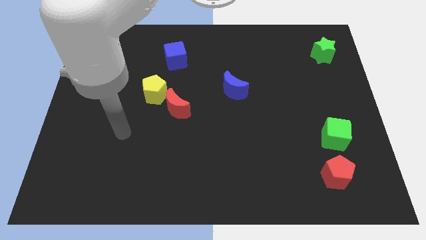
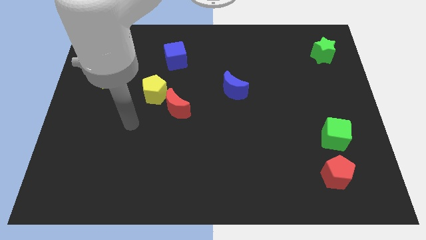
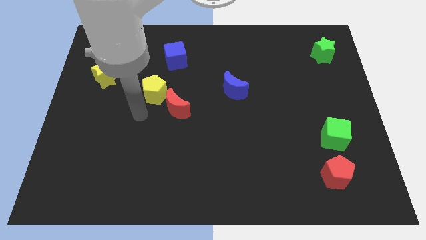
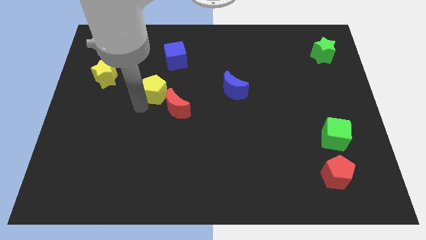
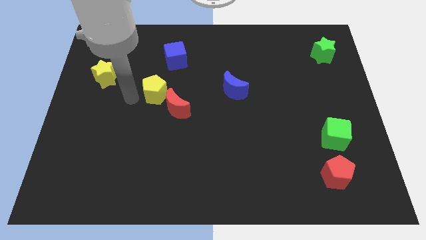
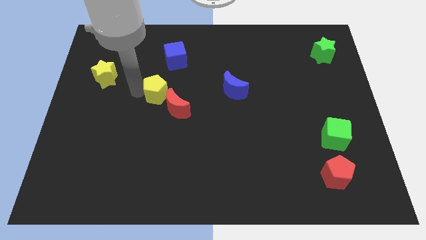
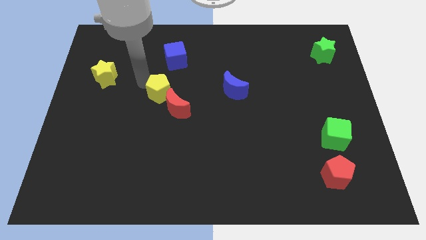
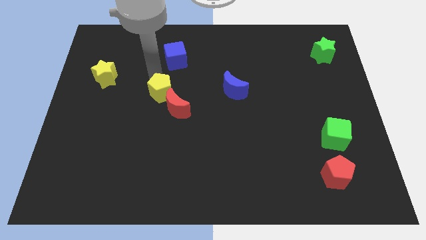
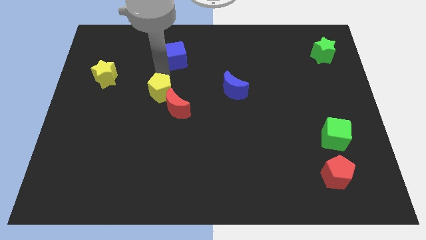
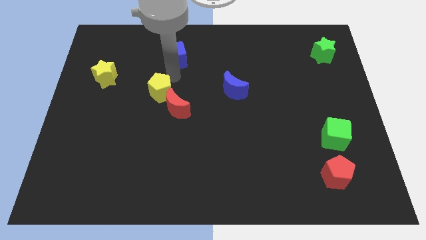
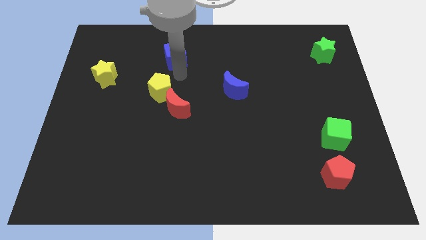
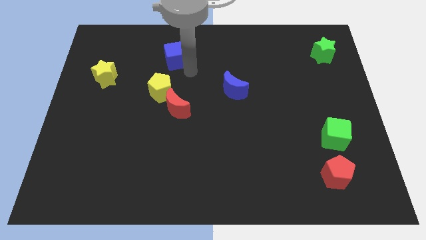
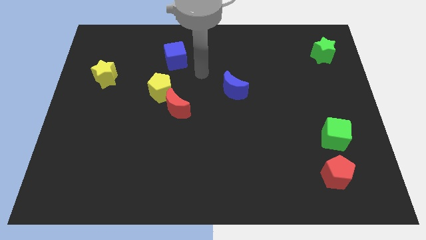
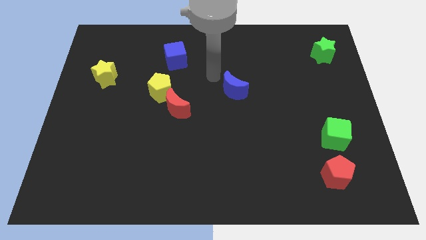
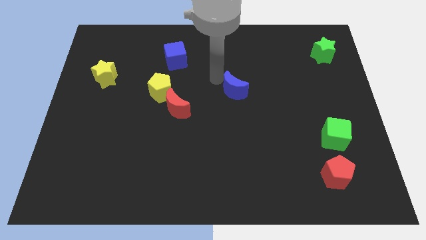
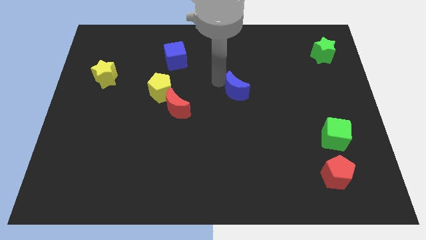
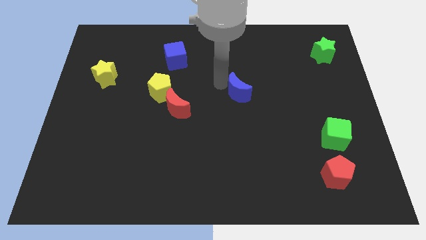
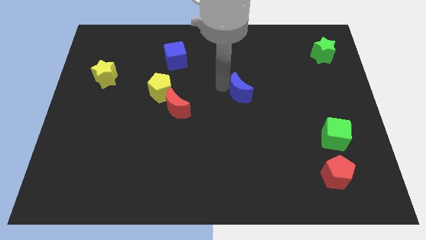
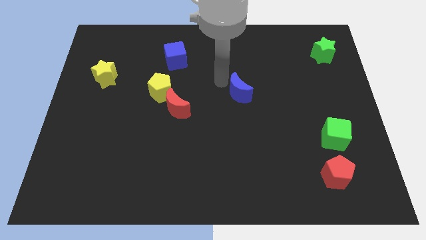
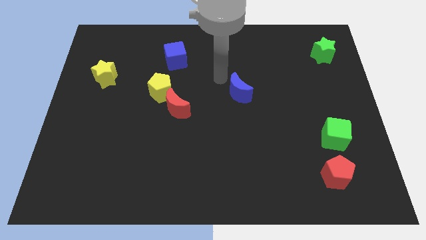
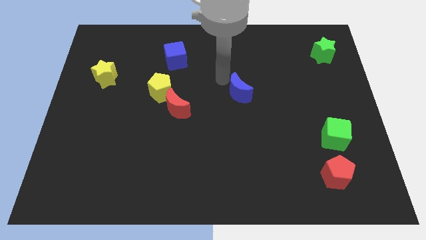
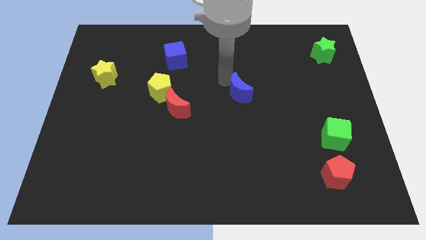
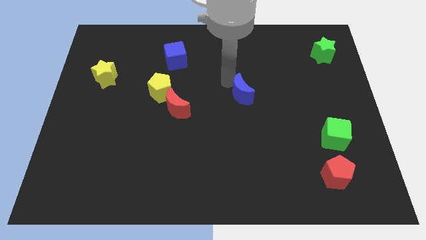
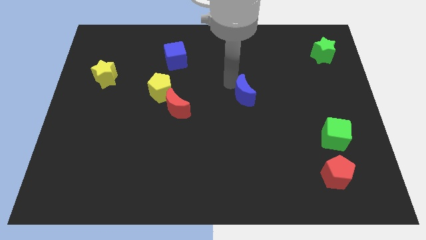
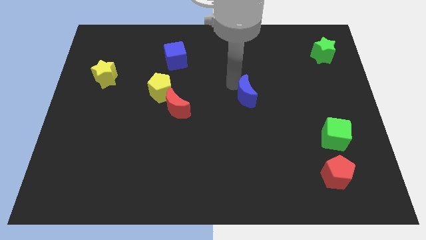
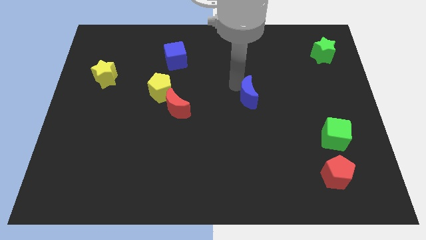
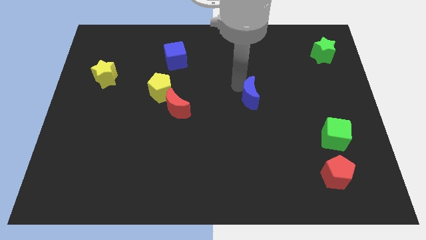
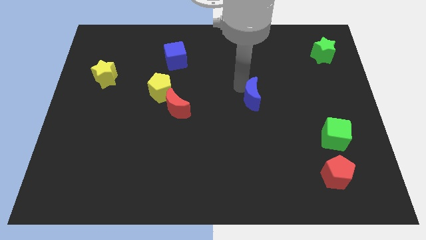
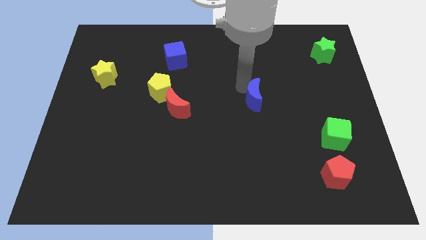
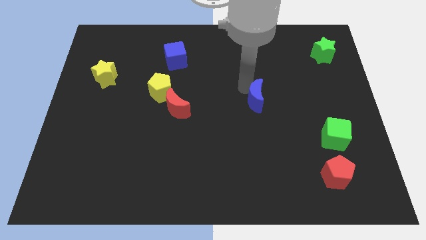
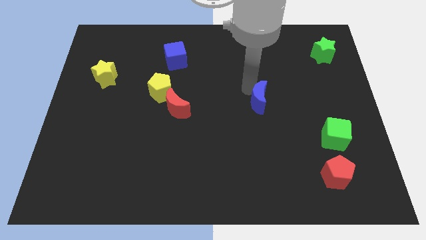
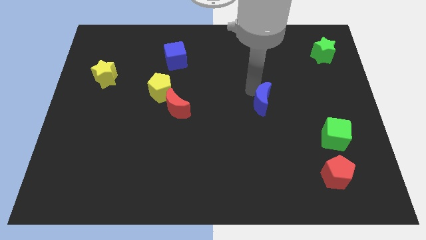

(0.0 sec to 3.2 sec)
slightly move the blue moon downwards and to the right

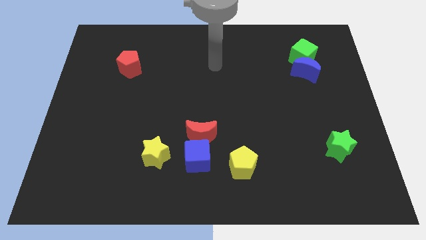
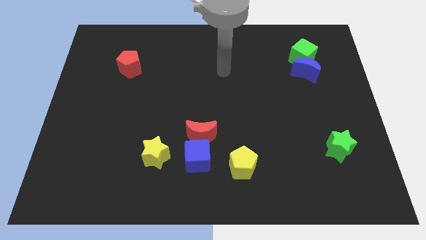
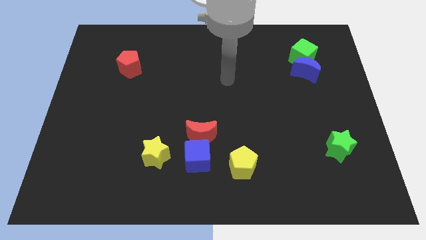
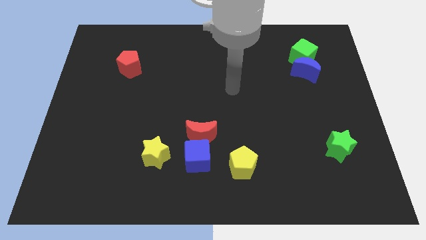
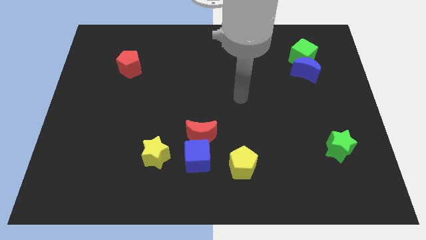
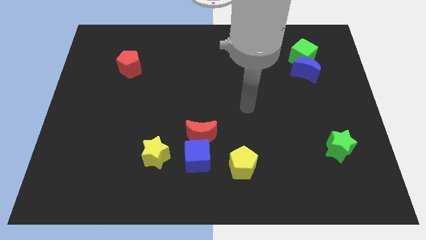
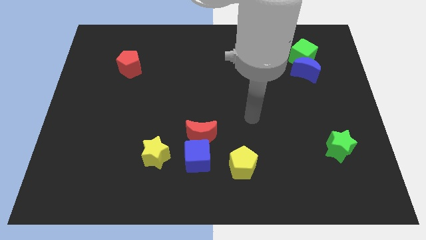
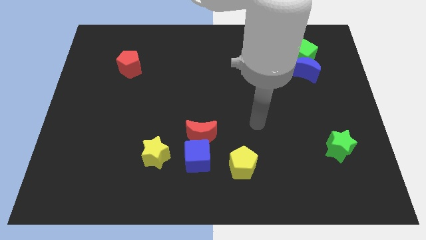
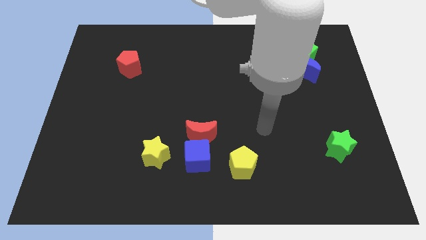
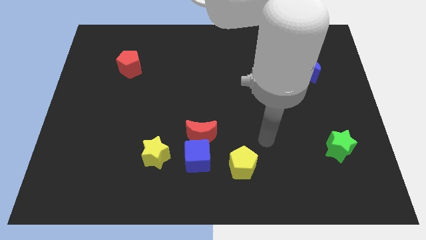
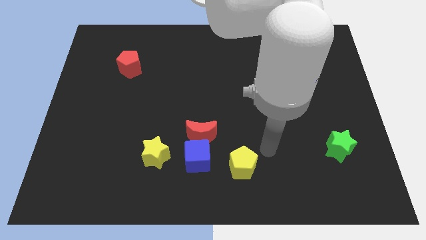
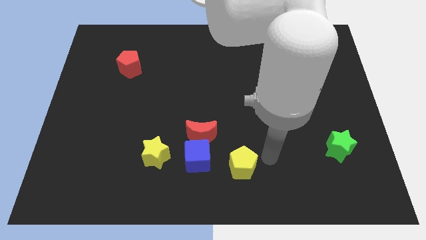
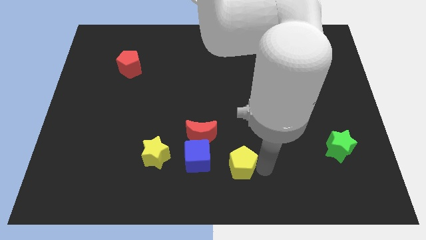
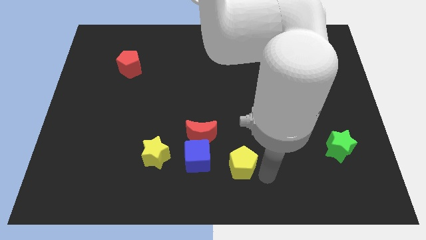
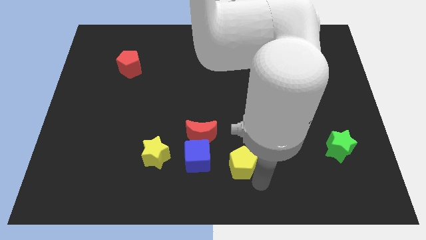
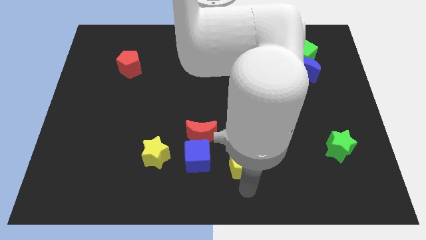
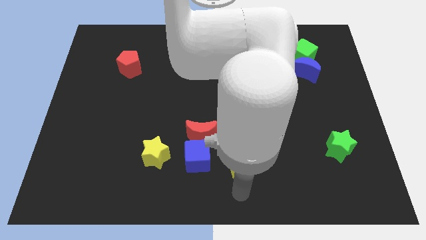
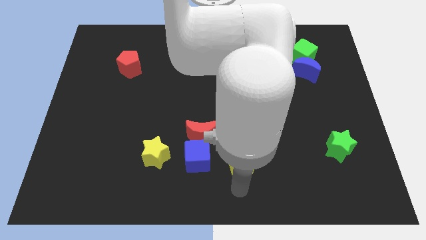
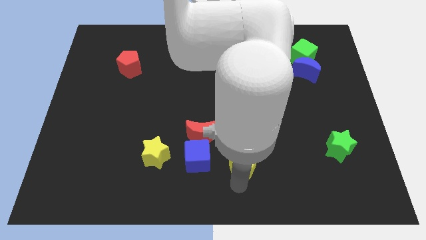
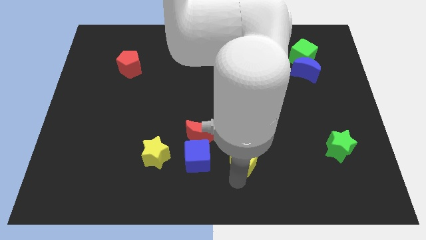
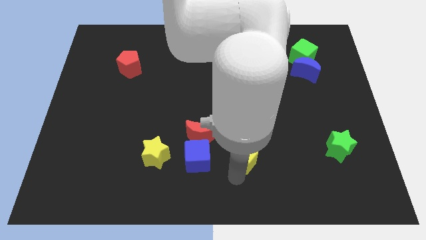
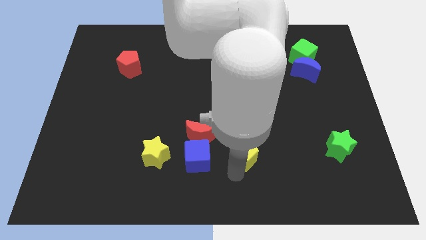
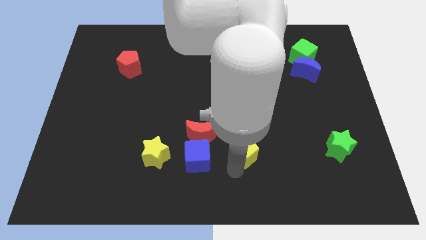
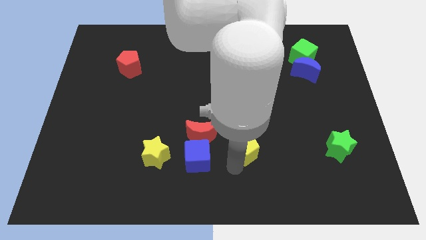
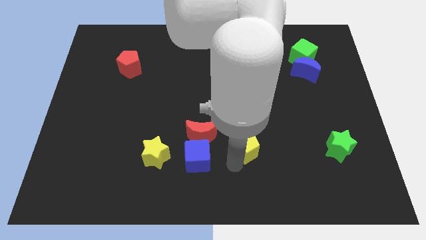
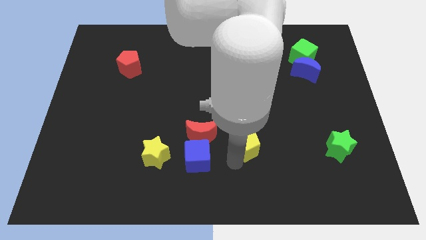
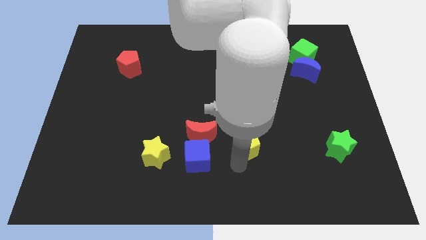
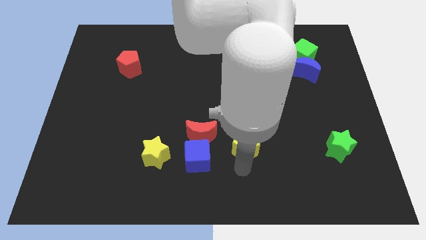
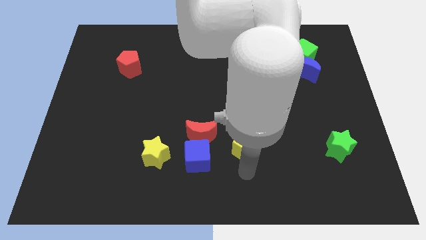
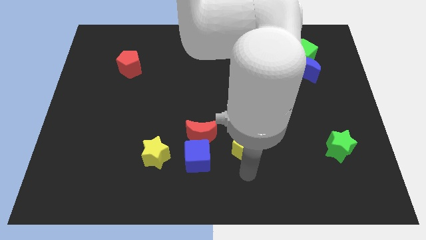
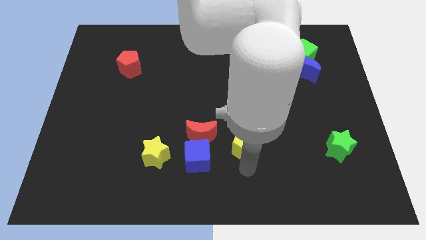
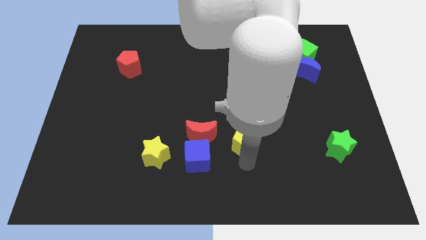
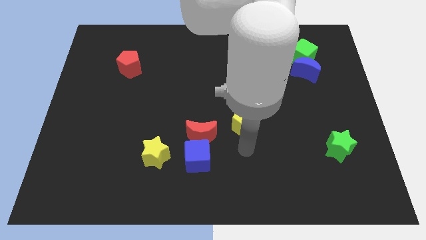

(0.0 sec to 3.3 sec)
slightly push the yellow pentagon upwards

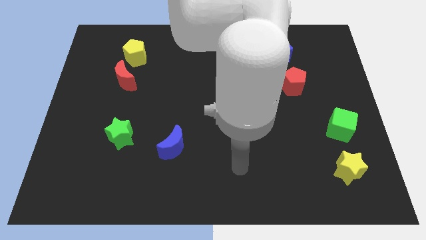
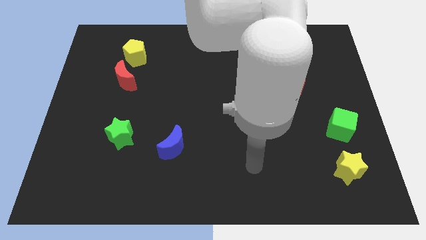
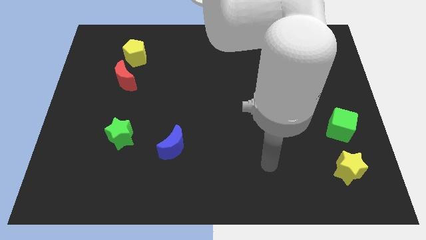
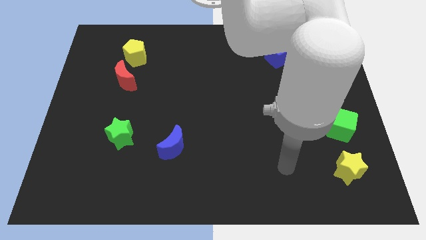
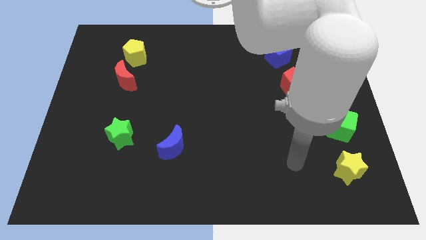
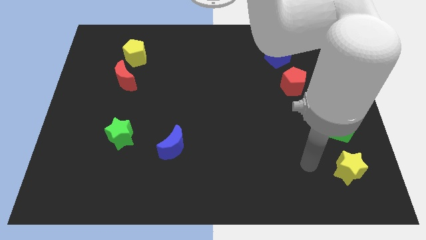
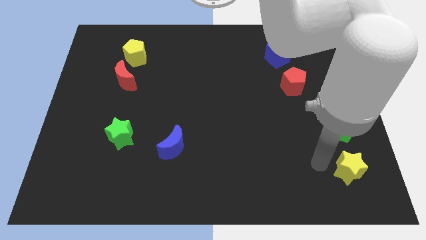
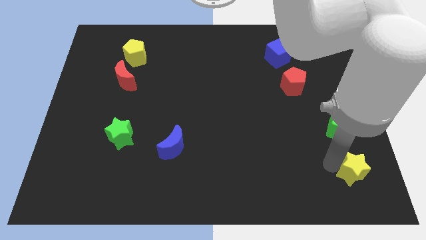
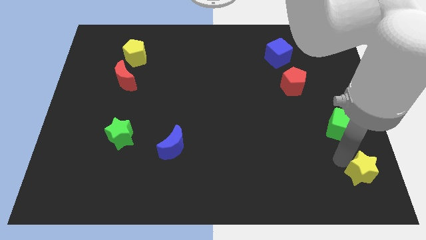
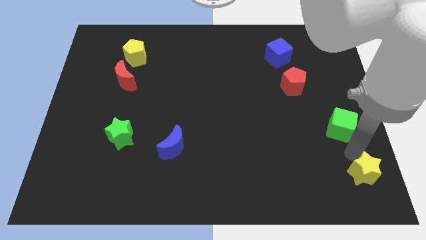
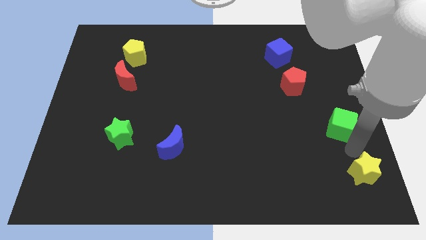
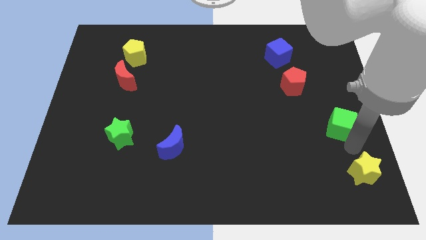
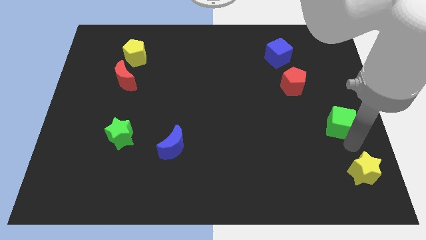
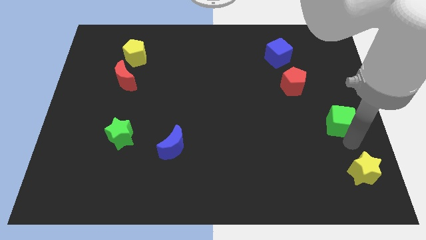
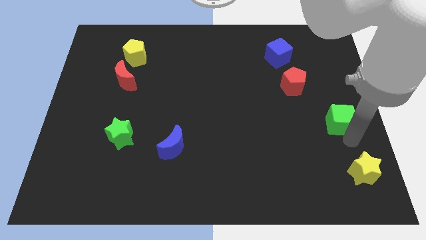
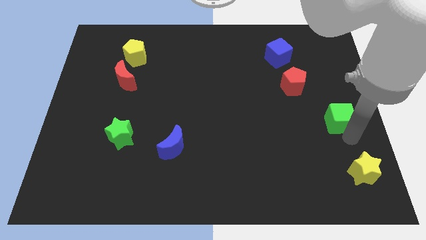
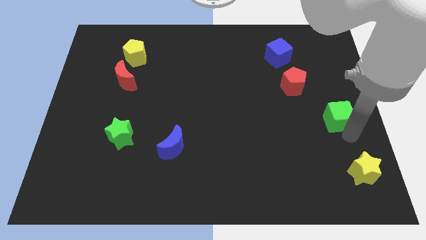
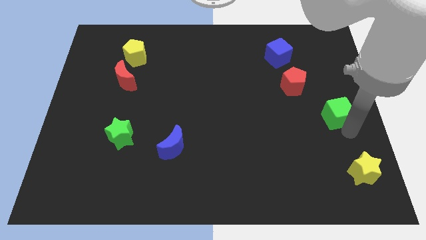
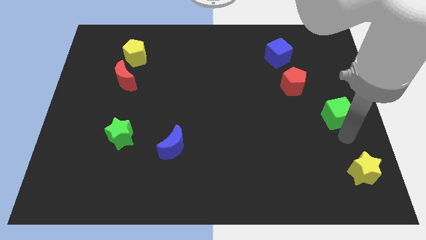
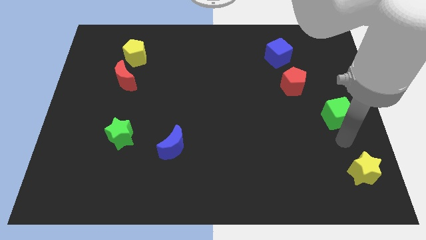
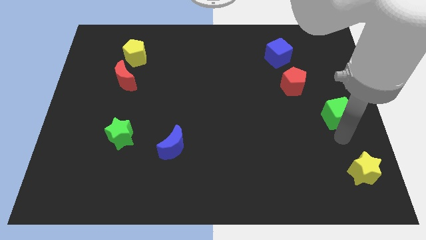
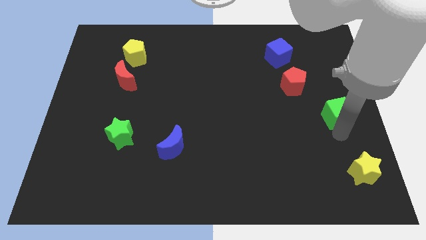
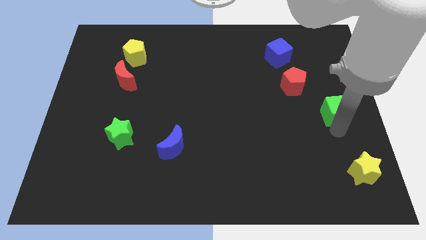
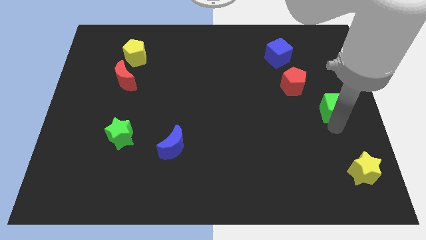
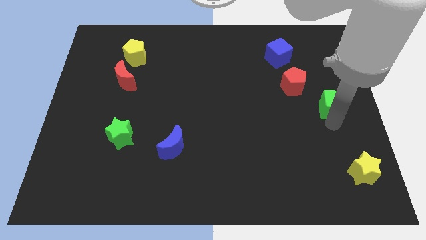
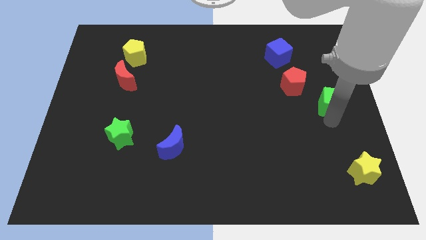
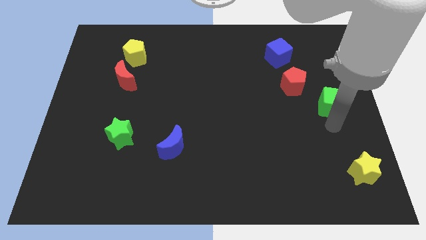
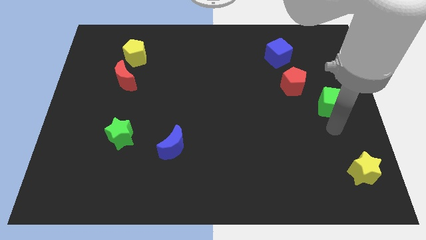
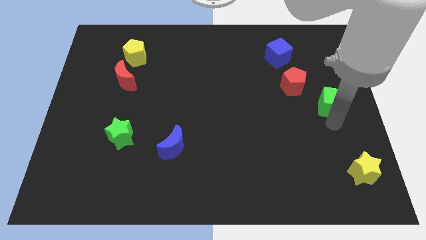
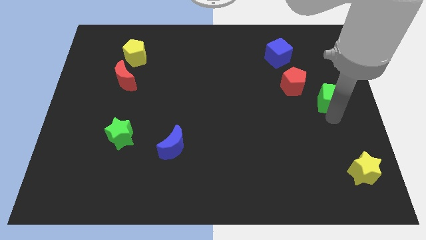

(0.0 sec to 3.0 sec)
push the green cube upwards a bit
